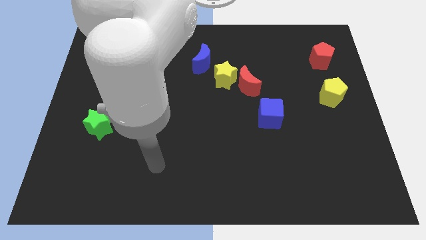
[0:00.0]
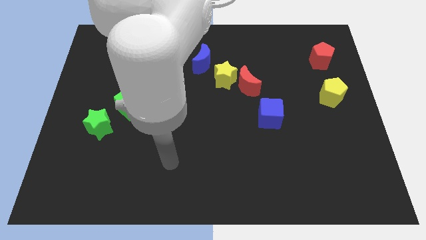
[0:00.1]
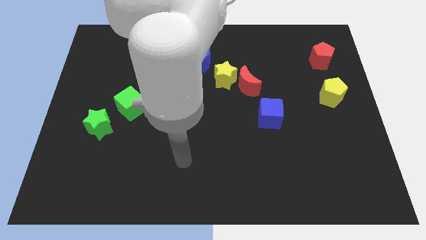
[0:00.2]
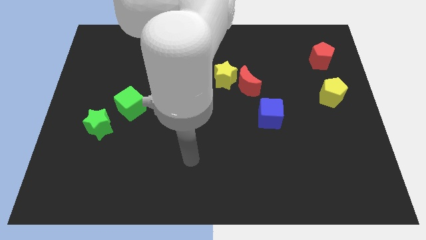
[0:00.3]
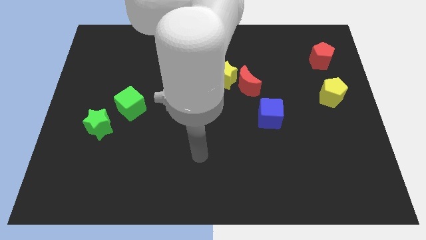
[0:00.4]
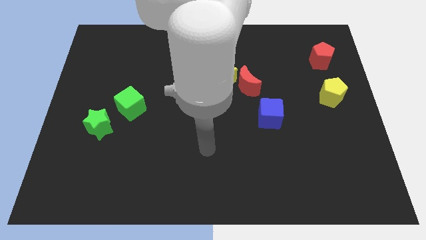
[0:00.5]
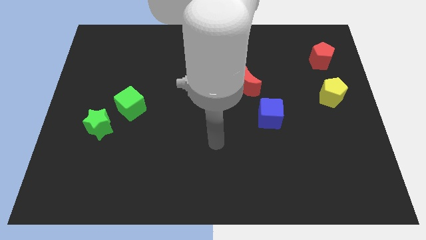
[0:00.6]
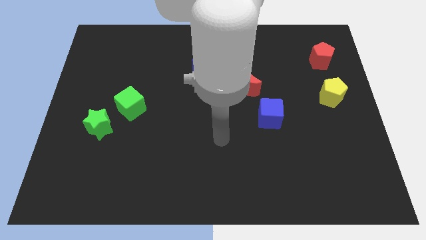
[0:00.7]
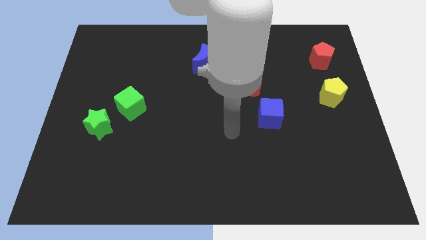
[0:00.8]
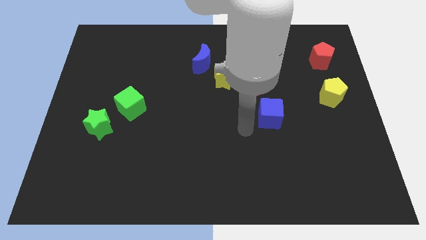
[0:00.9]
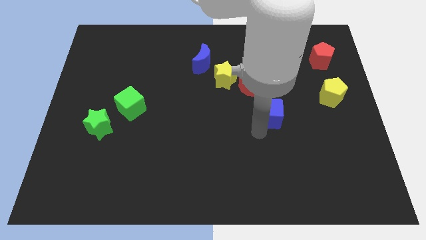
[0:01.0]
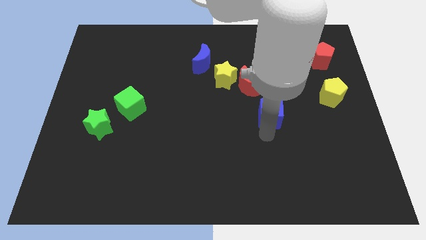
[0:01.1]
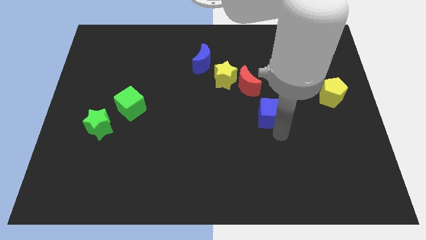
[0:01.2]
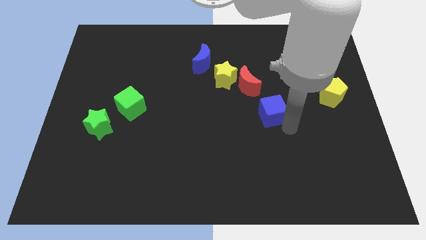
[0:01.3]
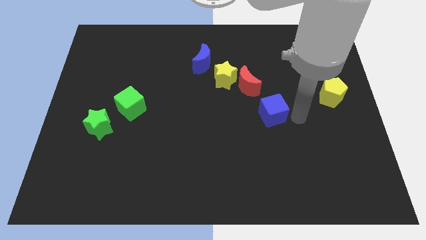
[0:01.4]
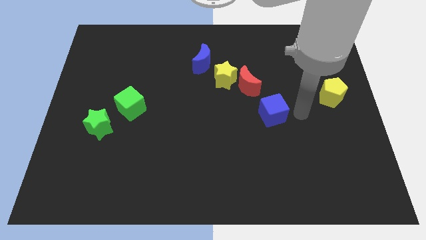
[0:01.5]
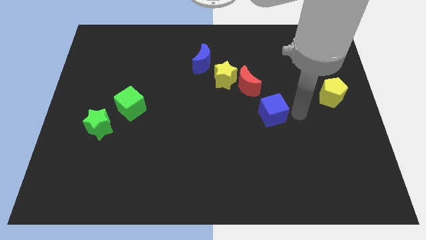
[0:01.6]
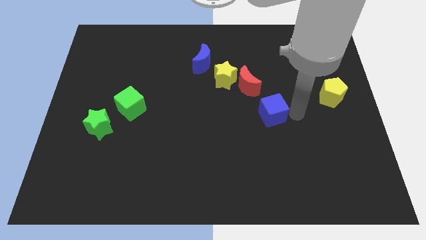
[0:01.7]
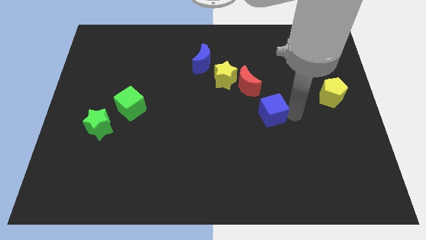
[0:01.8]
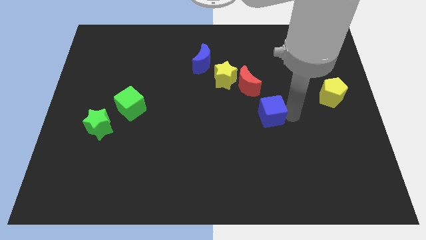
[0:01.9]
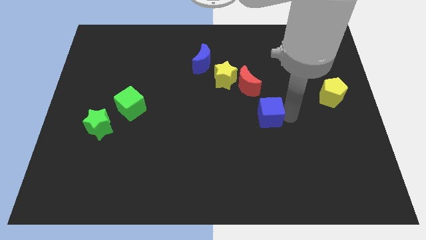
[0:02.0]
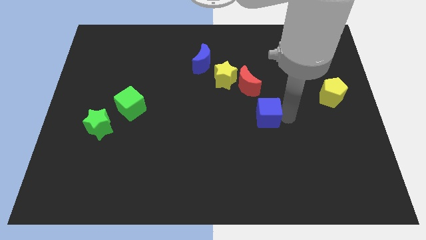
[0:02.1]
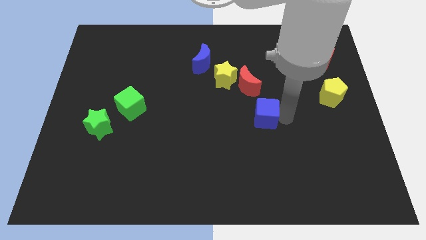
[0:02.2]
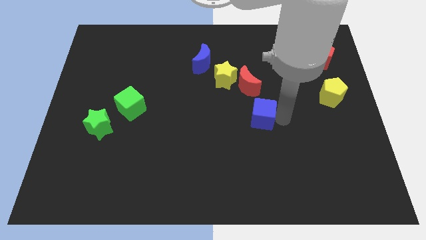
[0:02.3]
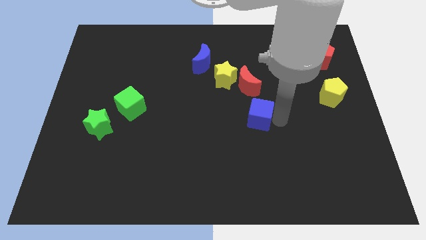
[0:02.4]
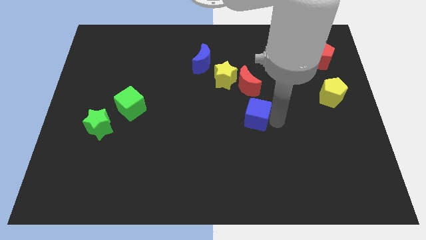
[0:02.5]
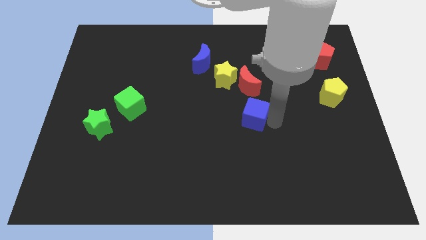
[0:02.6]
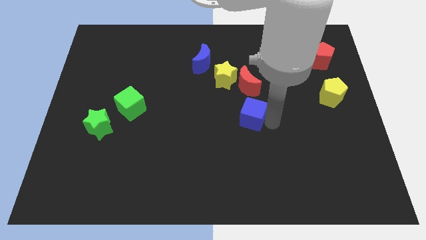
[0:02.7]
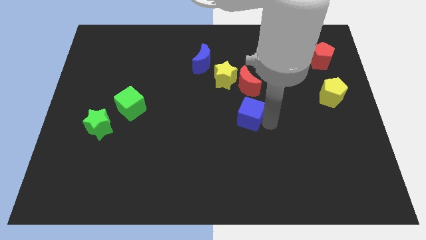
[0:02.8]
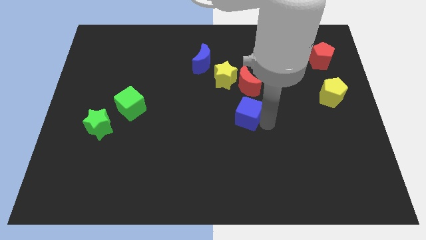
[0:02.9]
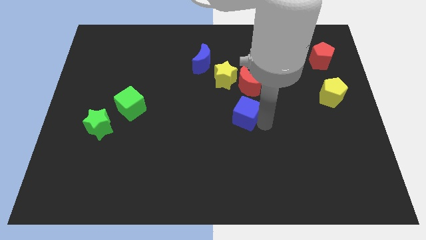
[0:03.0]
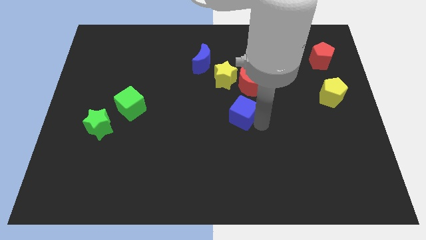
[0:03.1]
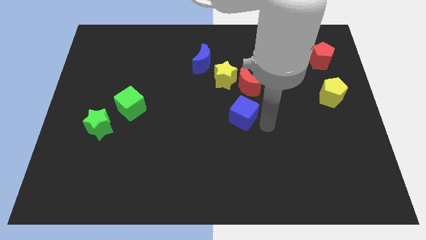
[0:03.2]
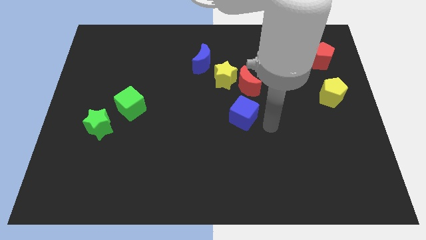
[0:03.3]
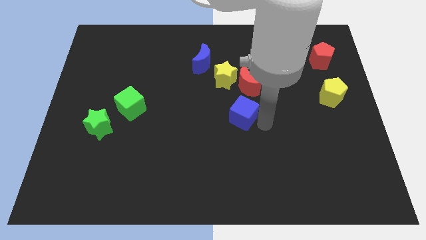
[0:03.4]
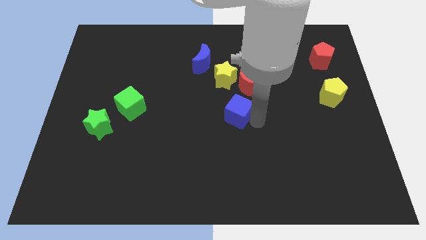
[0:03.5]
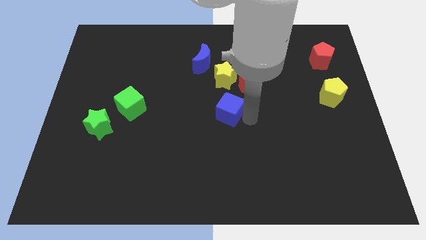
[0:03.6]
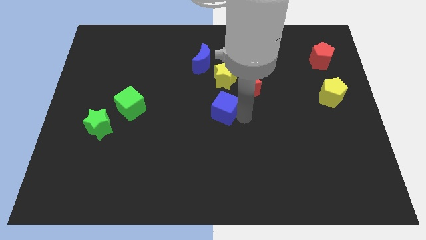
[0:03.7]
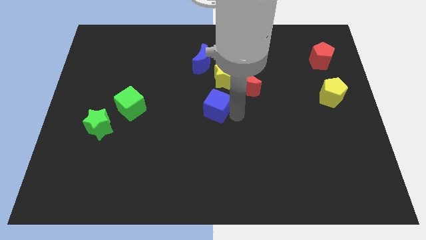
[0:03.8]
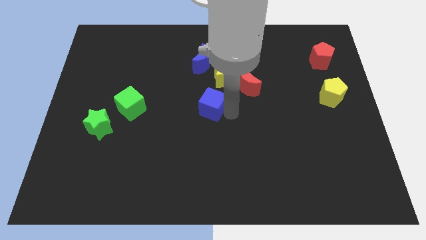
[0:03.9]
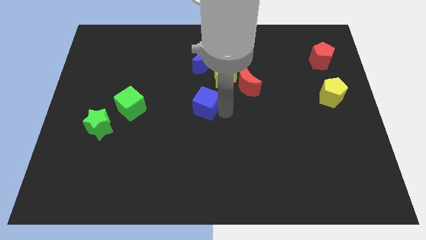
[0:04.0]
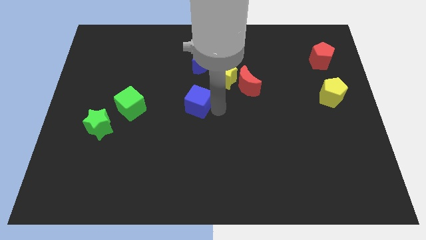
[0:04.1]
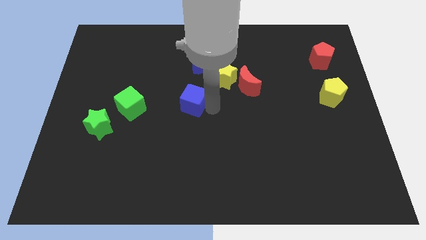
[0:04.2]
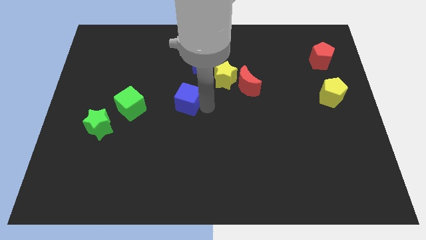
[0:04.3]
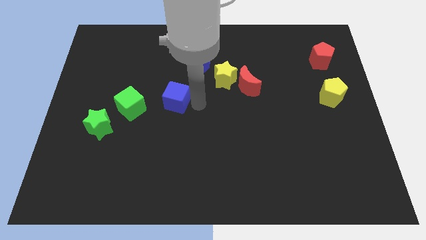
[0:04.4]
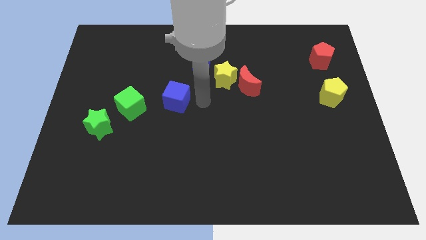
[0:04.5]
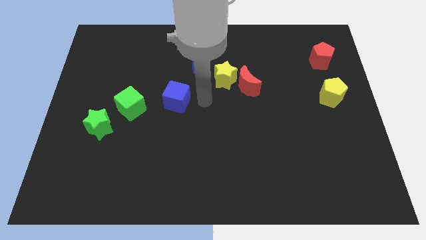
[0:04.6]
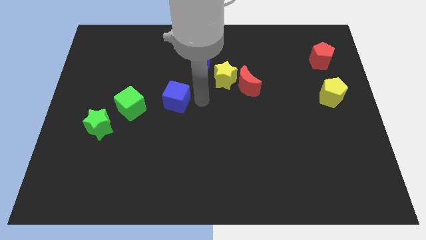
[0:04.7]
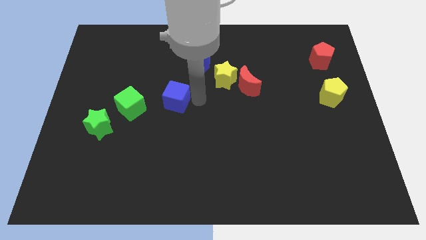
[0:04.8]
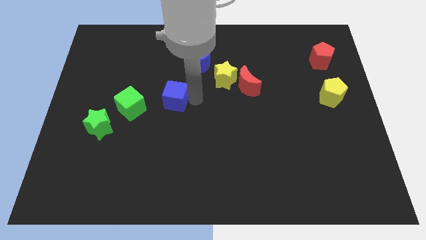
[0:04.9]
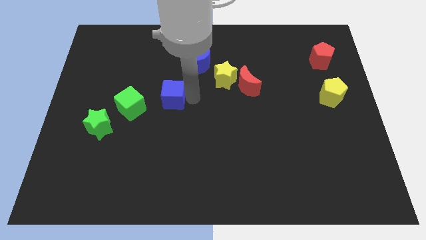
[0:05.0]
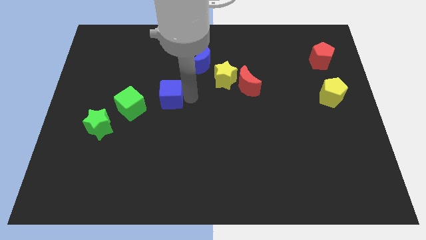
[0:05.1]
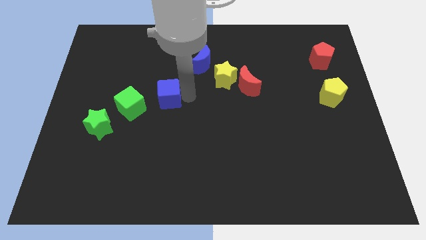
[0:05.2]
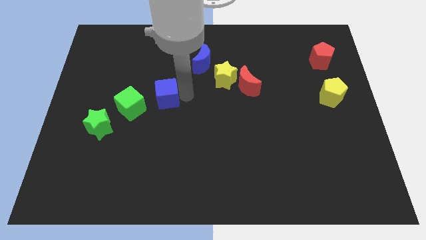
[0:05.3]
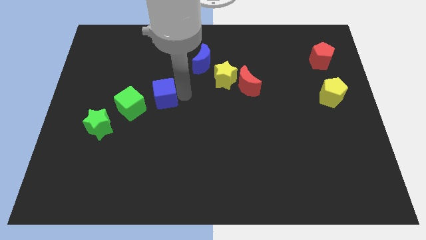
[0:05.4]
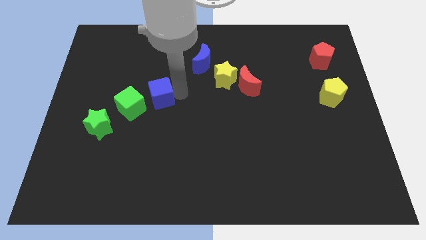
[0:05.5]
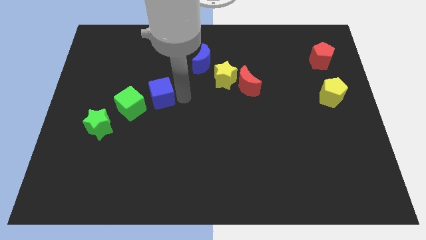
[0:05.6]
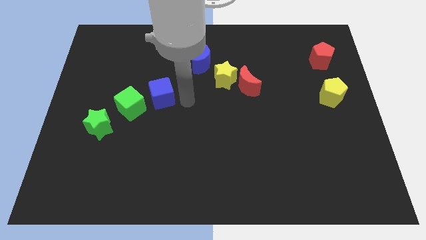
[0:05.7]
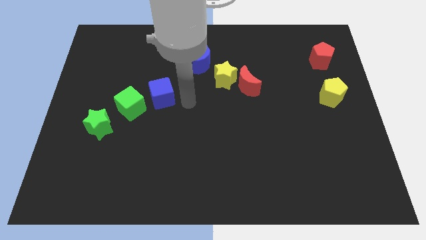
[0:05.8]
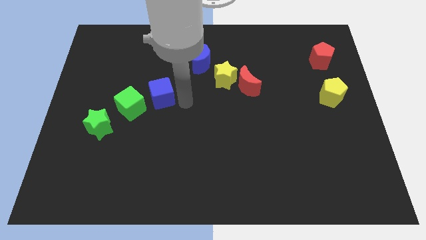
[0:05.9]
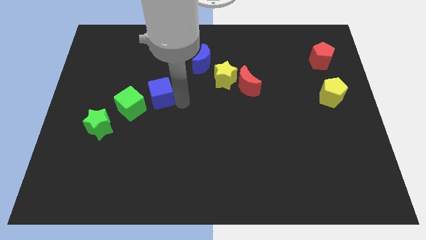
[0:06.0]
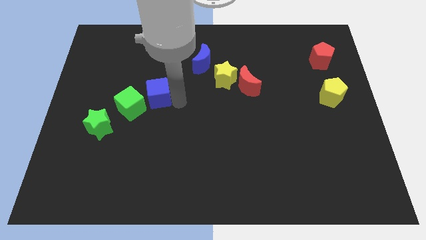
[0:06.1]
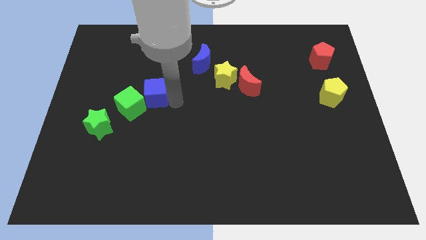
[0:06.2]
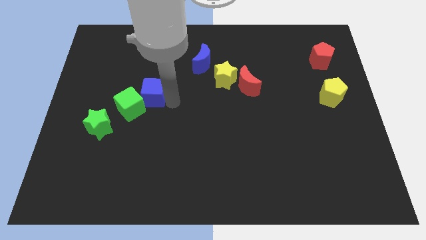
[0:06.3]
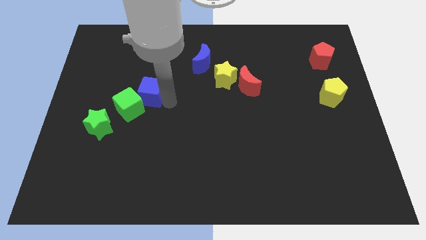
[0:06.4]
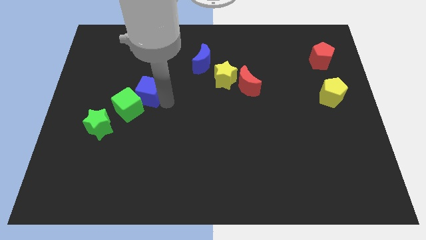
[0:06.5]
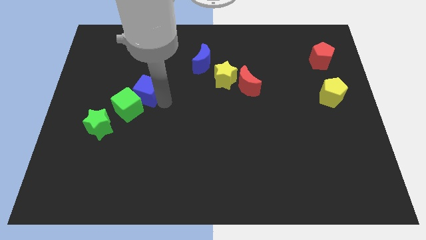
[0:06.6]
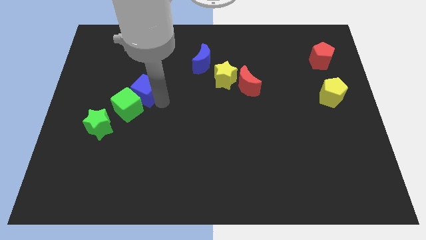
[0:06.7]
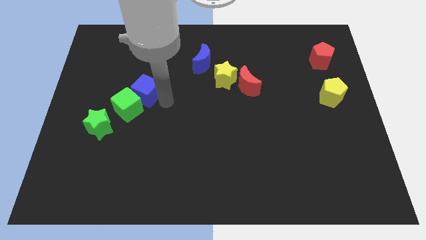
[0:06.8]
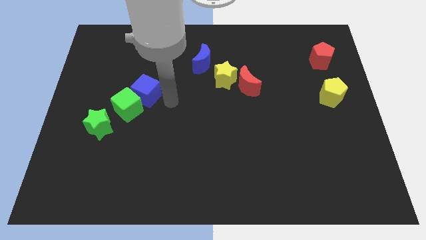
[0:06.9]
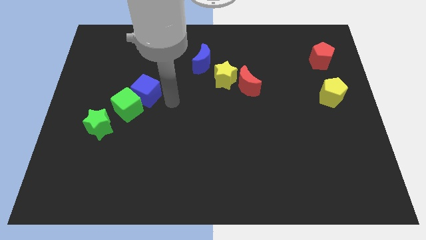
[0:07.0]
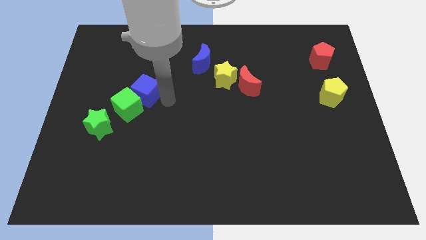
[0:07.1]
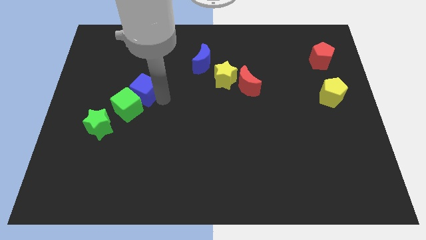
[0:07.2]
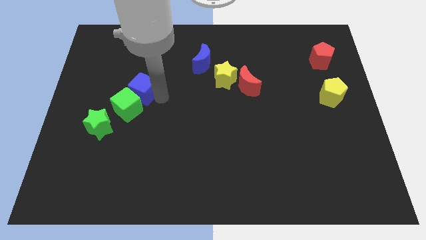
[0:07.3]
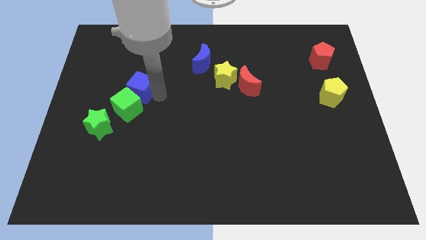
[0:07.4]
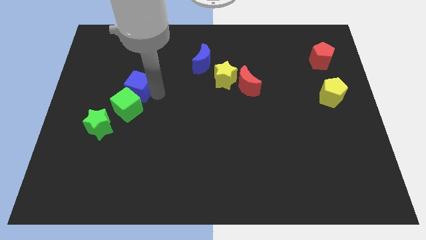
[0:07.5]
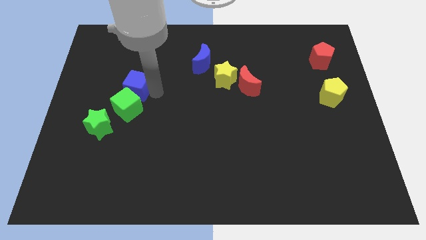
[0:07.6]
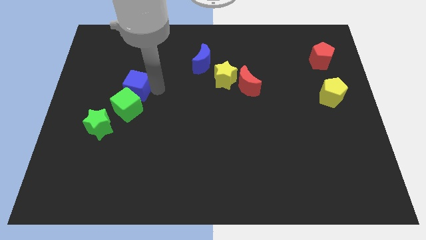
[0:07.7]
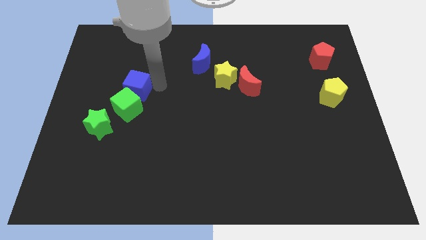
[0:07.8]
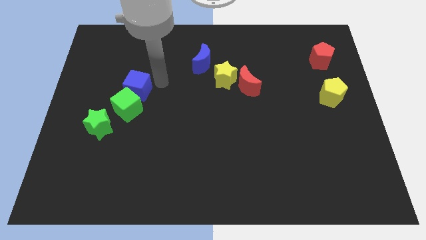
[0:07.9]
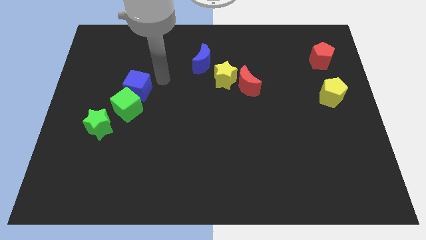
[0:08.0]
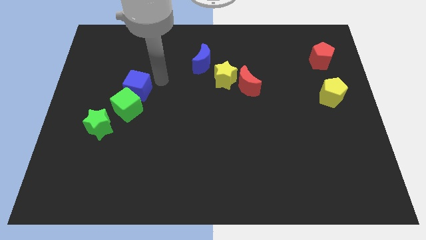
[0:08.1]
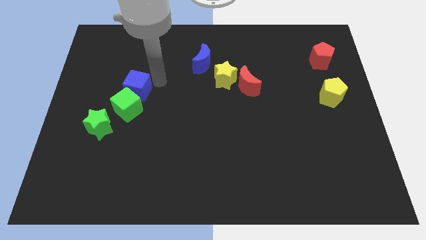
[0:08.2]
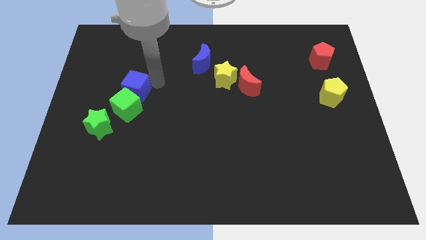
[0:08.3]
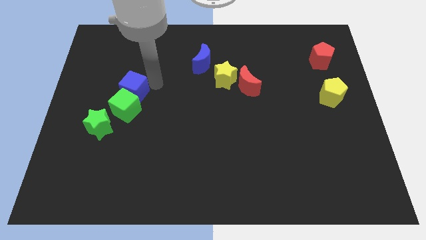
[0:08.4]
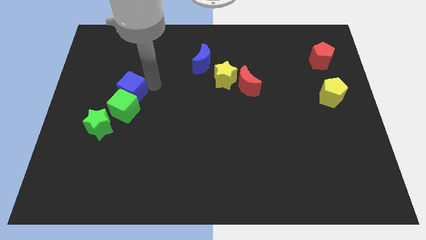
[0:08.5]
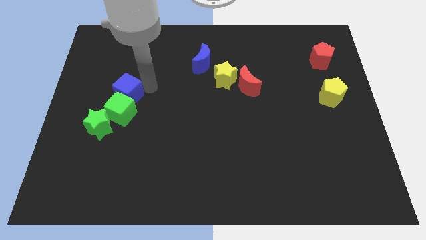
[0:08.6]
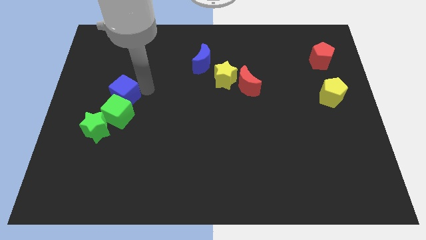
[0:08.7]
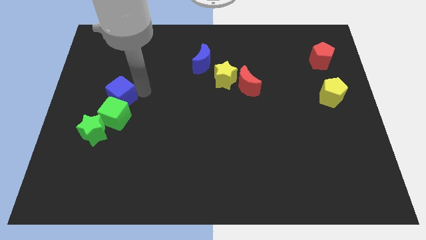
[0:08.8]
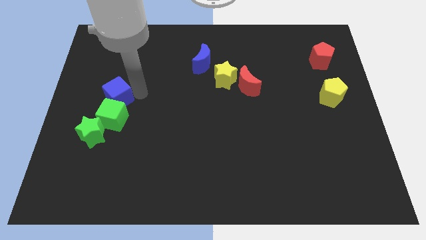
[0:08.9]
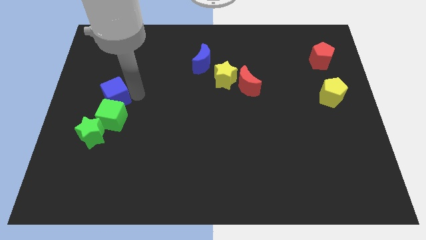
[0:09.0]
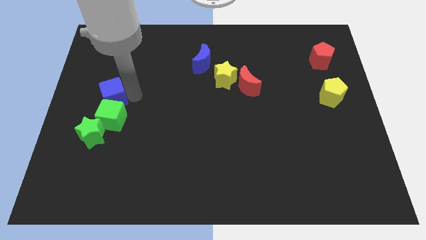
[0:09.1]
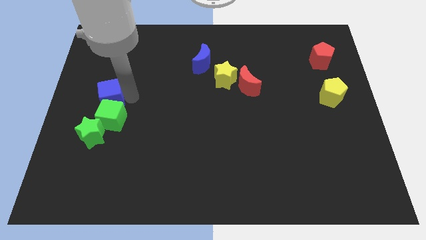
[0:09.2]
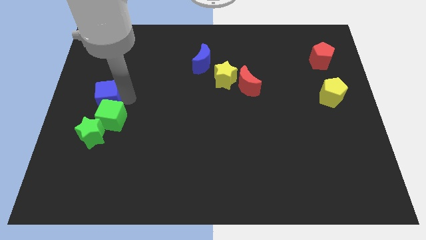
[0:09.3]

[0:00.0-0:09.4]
put the blue cube to the left side
